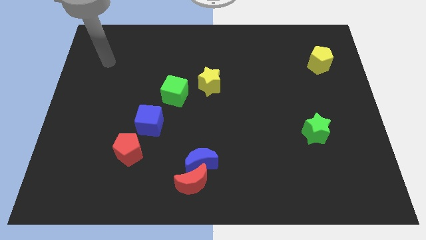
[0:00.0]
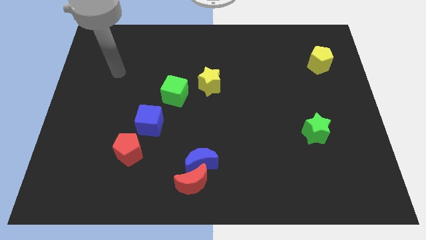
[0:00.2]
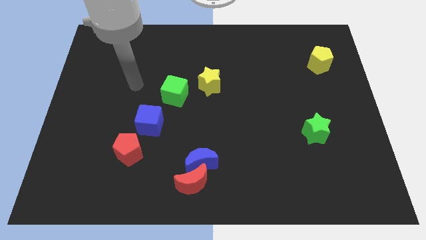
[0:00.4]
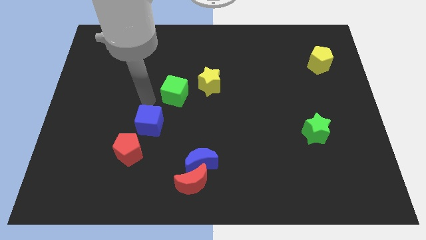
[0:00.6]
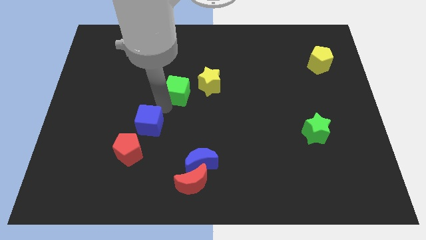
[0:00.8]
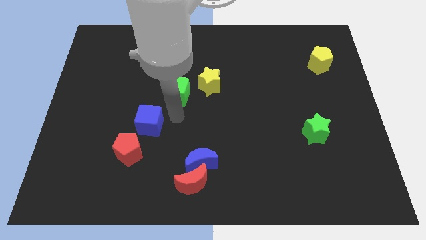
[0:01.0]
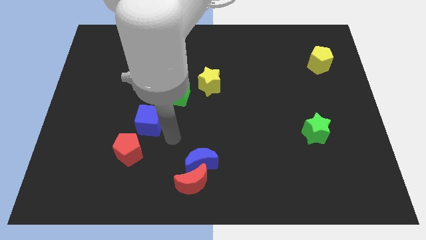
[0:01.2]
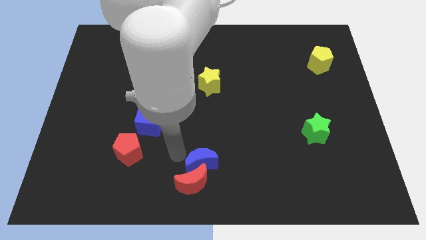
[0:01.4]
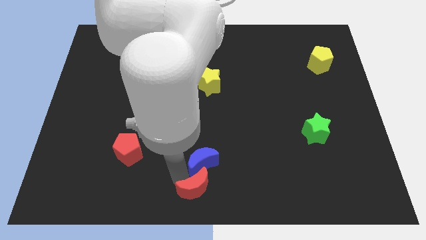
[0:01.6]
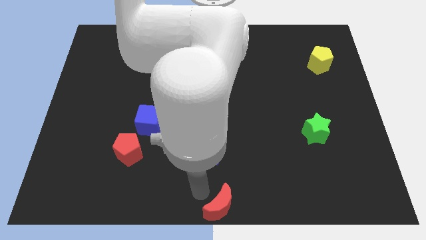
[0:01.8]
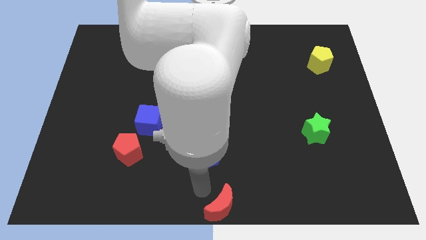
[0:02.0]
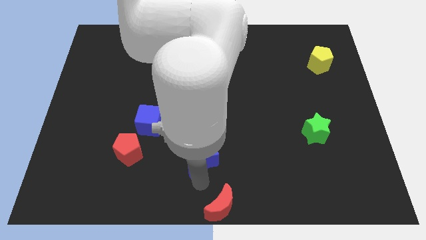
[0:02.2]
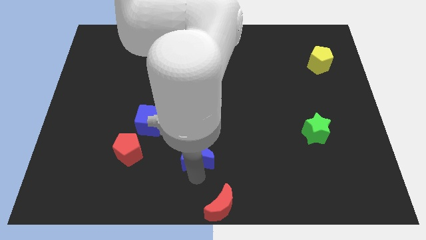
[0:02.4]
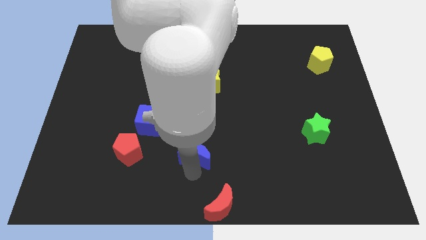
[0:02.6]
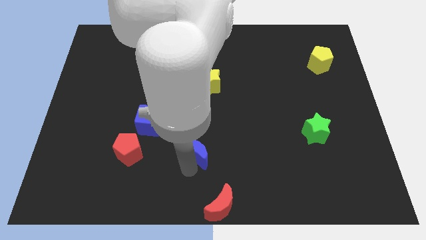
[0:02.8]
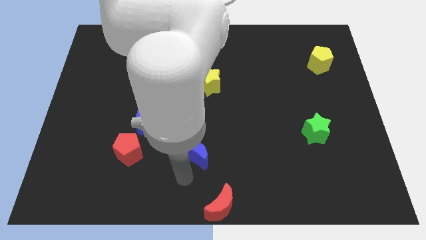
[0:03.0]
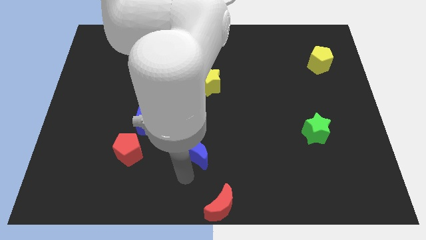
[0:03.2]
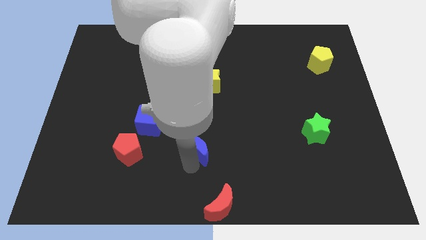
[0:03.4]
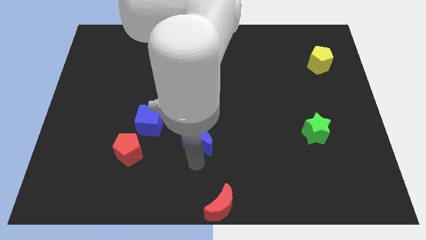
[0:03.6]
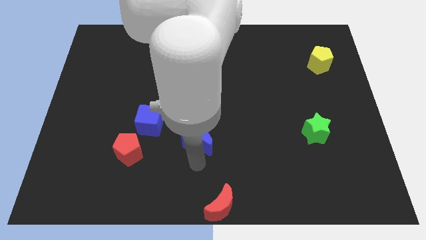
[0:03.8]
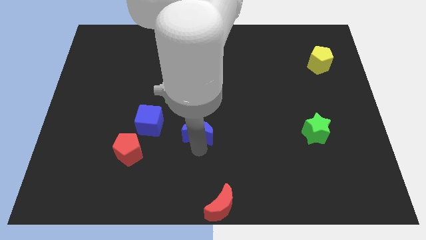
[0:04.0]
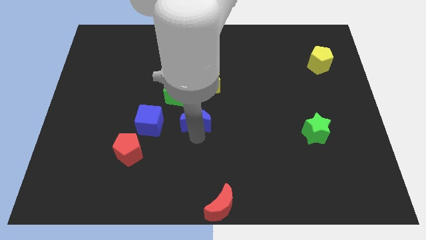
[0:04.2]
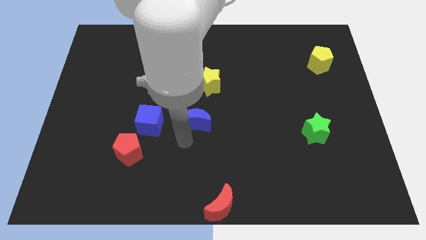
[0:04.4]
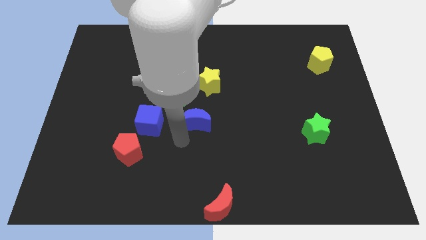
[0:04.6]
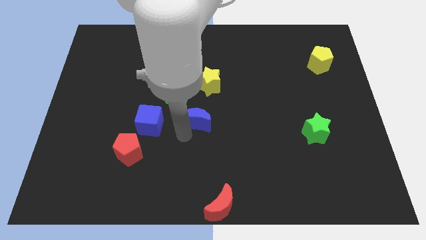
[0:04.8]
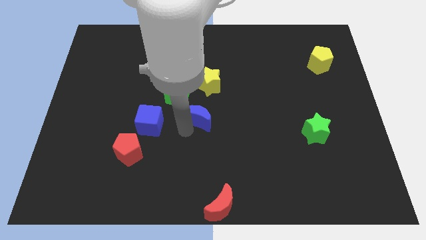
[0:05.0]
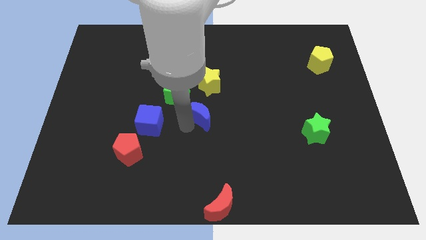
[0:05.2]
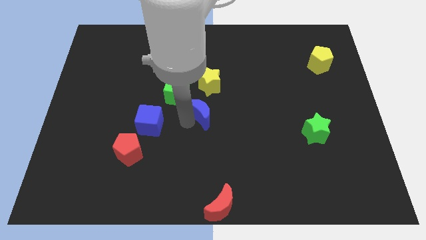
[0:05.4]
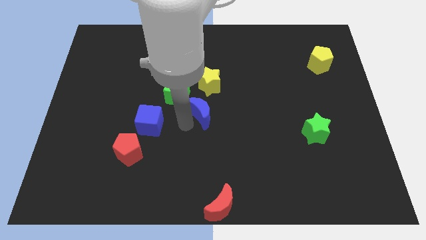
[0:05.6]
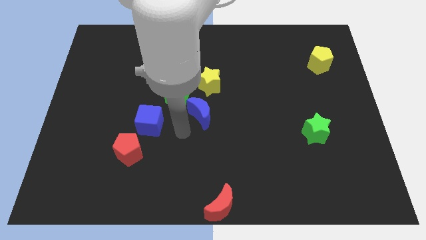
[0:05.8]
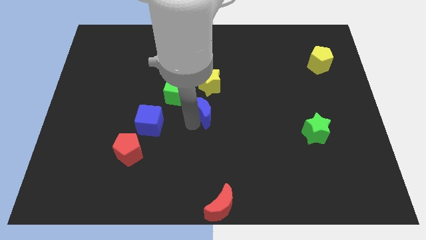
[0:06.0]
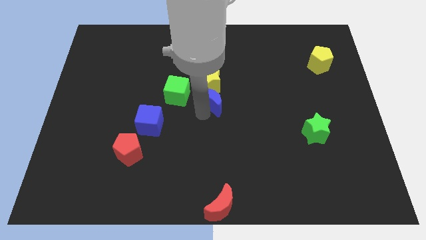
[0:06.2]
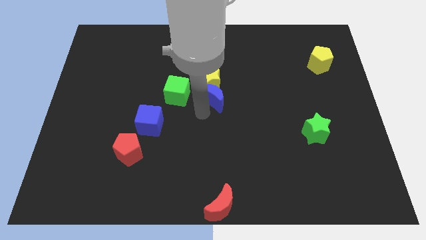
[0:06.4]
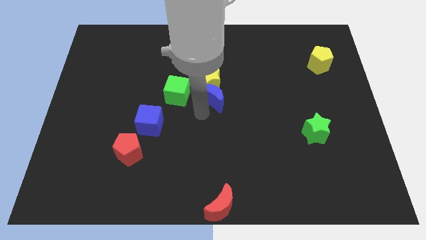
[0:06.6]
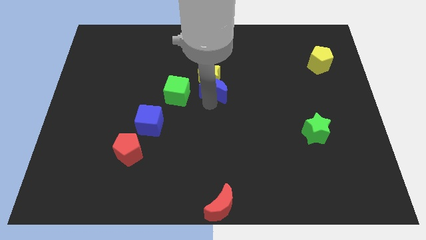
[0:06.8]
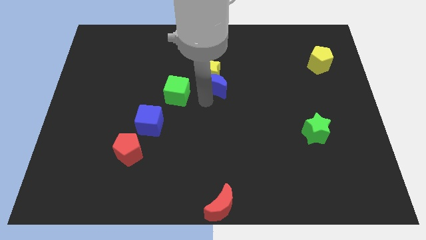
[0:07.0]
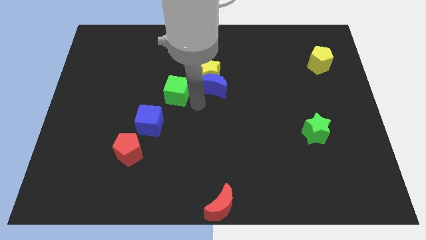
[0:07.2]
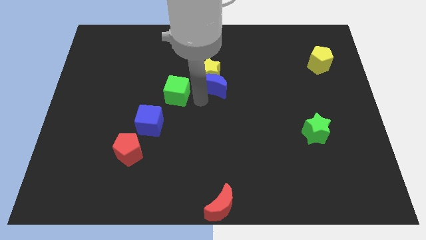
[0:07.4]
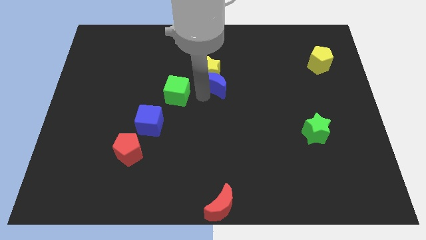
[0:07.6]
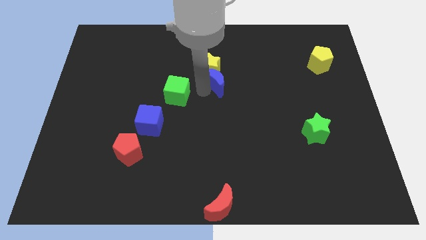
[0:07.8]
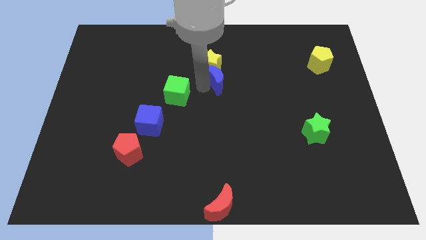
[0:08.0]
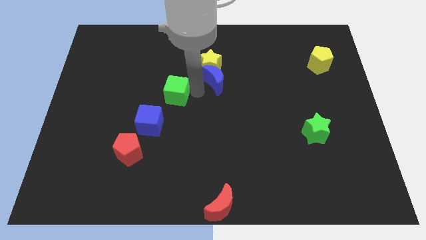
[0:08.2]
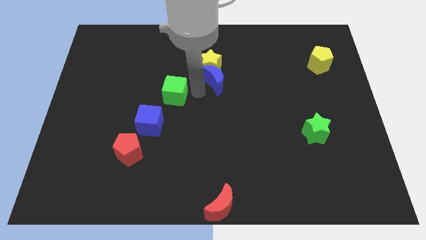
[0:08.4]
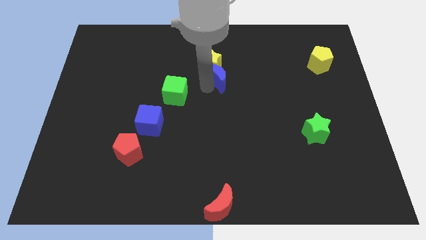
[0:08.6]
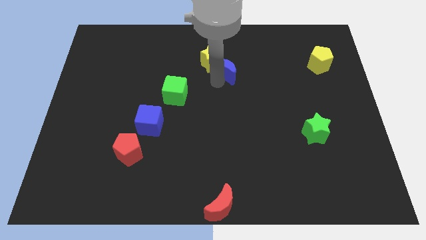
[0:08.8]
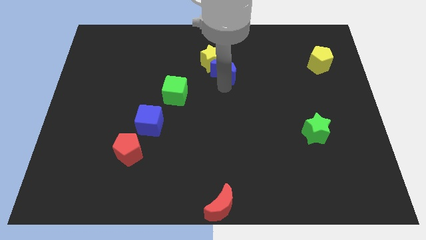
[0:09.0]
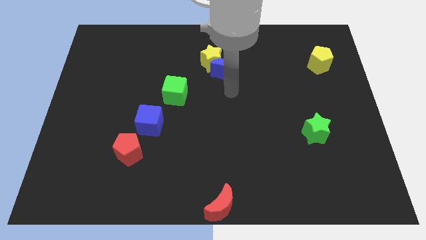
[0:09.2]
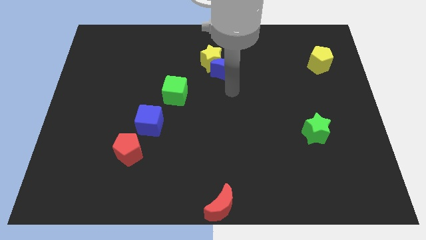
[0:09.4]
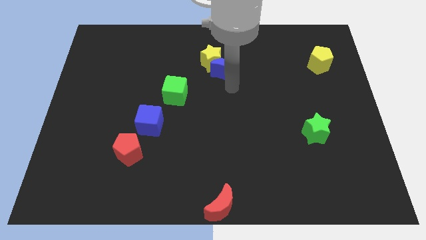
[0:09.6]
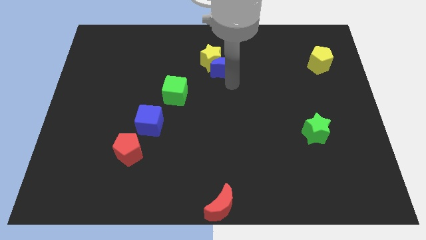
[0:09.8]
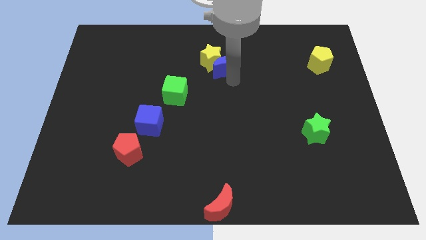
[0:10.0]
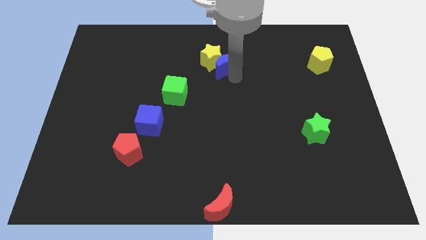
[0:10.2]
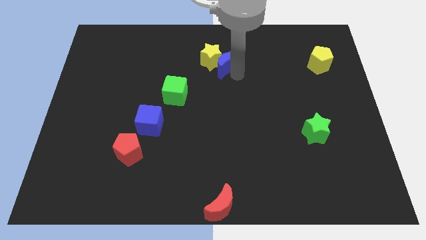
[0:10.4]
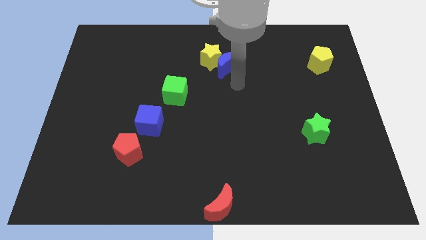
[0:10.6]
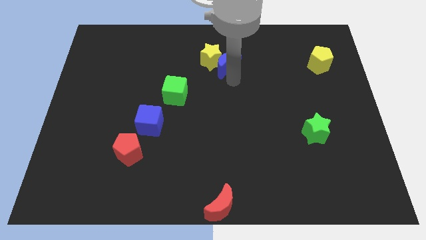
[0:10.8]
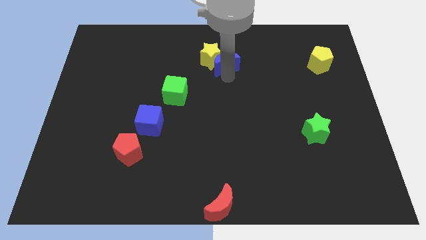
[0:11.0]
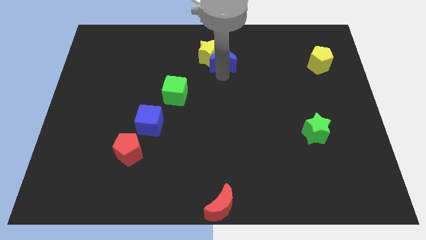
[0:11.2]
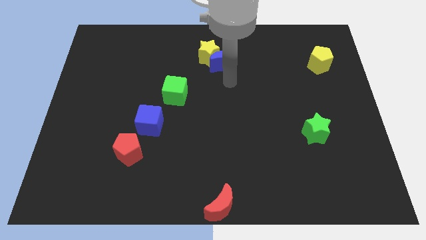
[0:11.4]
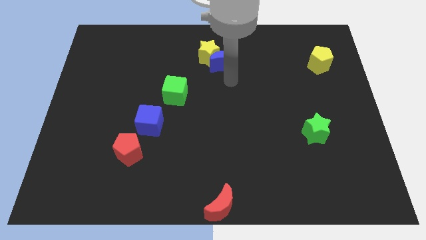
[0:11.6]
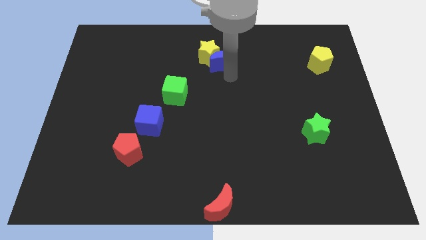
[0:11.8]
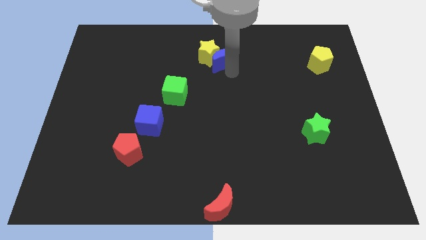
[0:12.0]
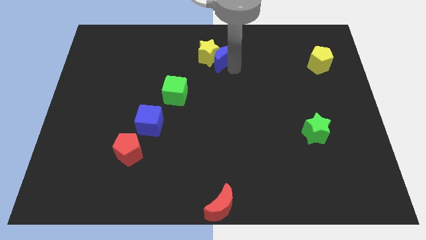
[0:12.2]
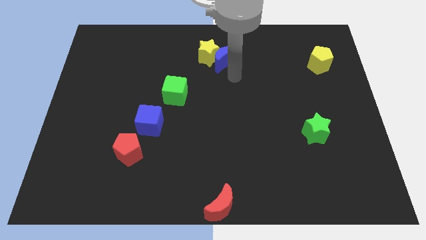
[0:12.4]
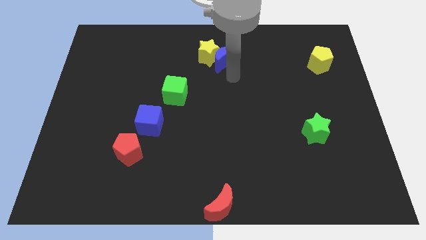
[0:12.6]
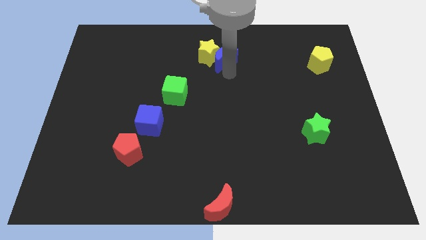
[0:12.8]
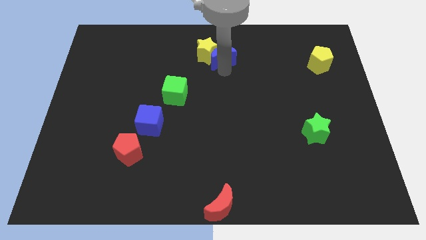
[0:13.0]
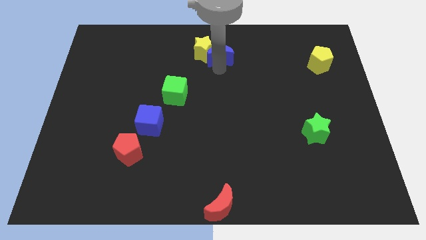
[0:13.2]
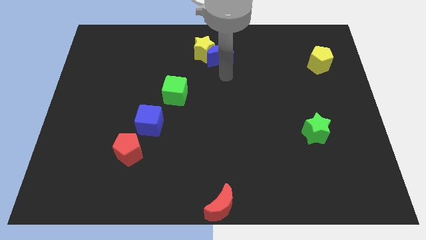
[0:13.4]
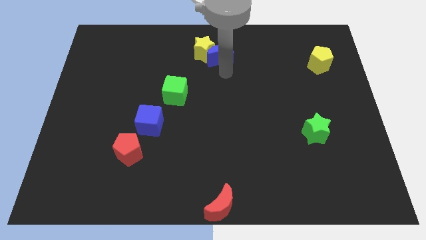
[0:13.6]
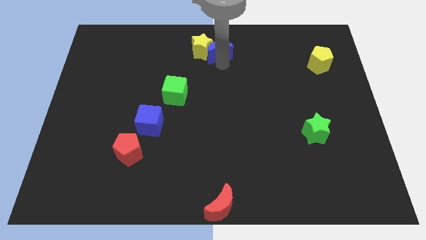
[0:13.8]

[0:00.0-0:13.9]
move the blue moon to the top
